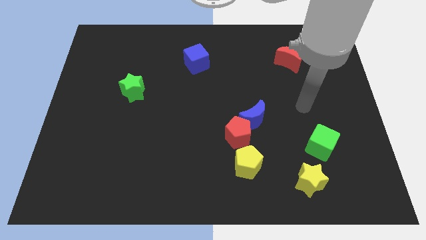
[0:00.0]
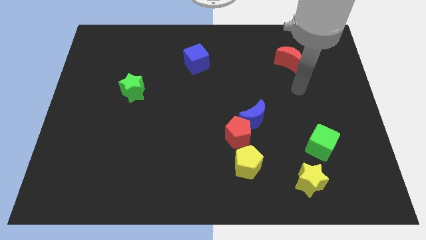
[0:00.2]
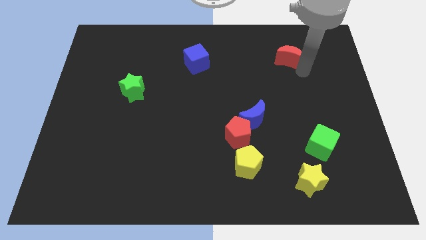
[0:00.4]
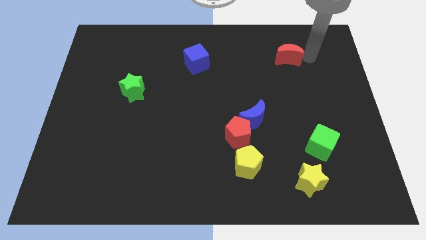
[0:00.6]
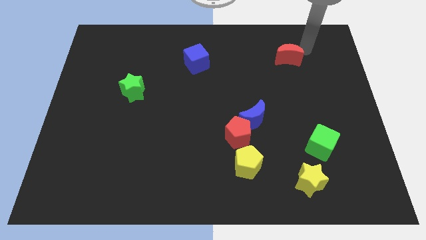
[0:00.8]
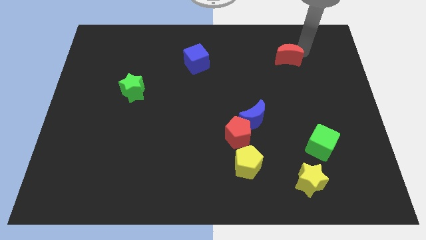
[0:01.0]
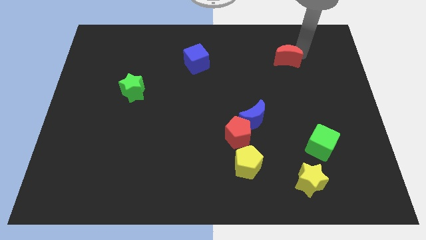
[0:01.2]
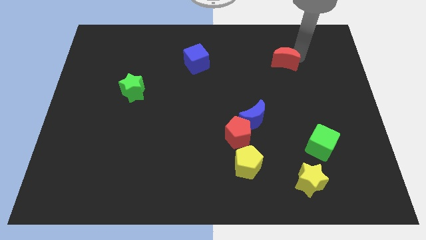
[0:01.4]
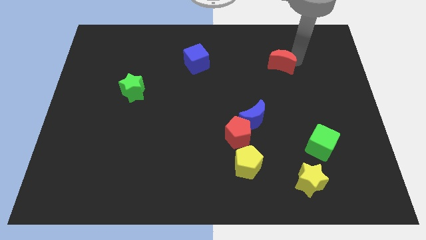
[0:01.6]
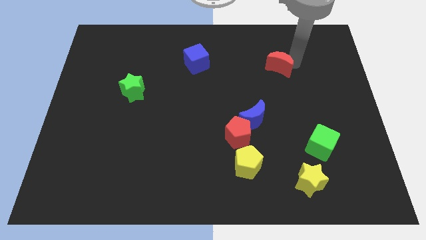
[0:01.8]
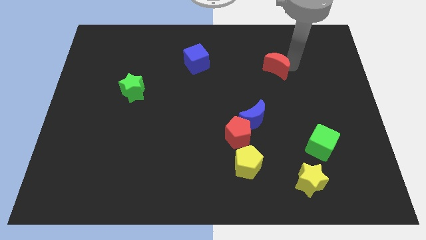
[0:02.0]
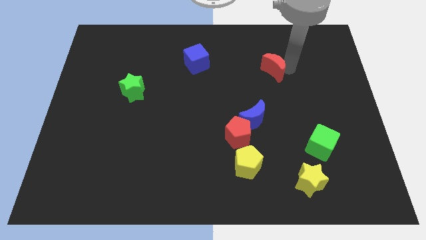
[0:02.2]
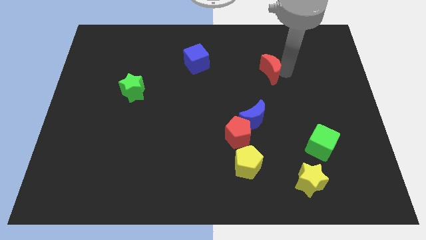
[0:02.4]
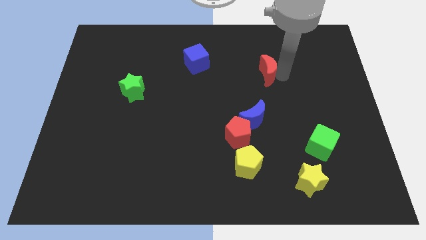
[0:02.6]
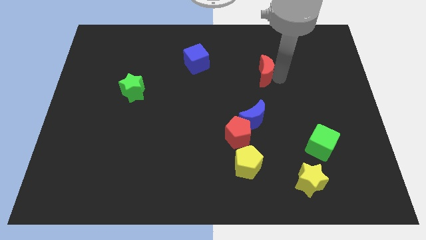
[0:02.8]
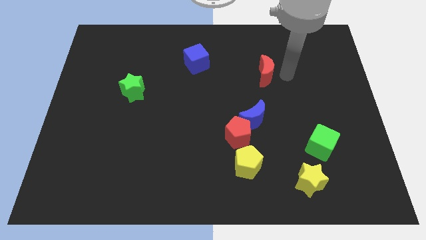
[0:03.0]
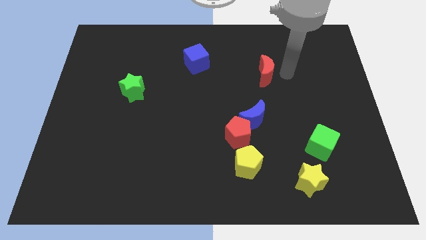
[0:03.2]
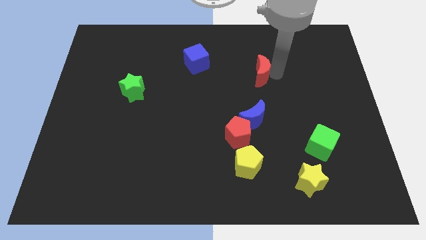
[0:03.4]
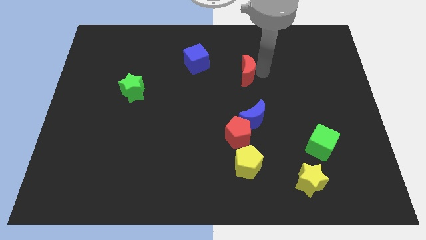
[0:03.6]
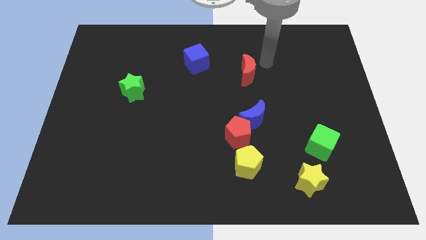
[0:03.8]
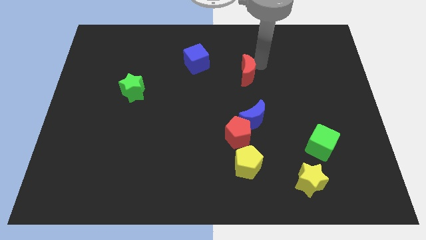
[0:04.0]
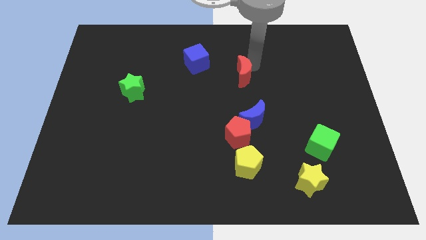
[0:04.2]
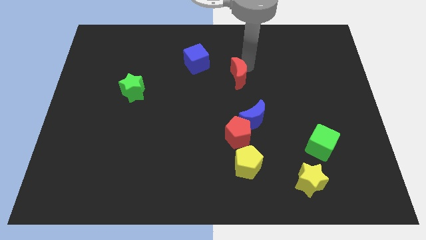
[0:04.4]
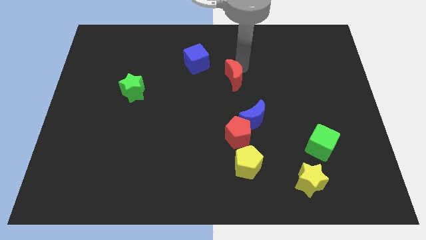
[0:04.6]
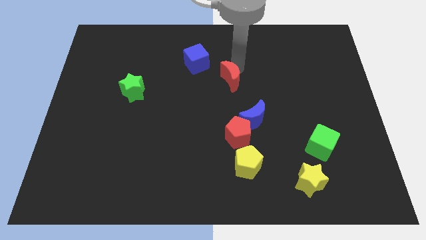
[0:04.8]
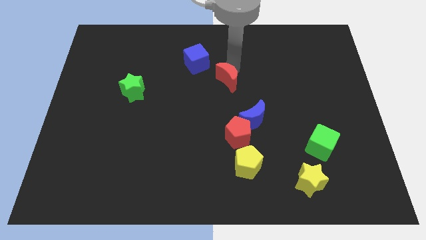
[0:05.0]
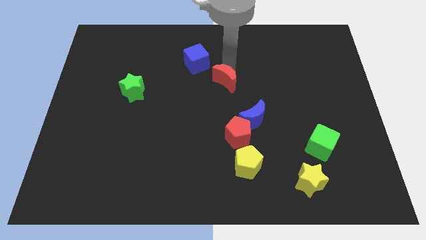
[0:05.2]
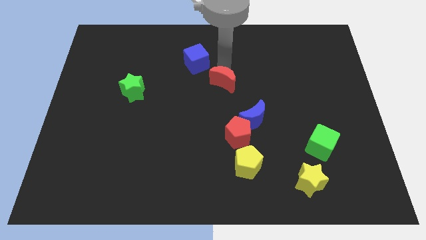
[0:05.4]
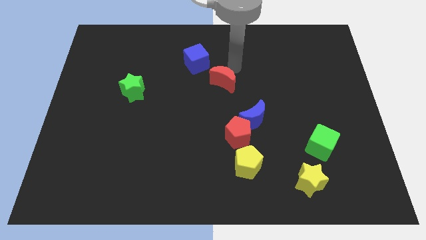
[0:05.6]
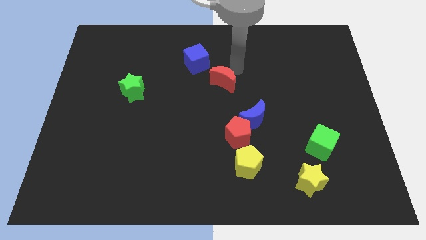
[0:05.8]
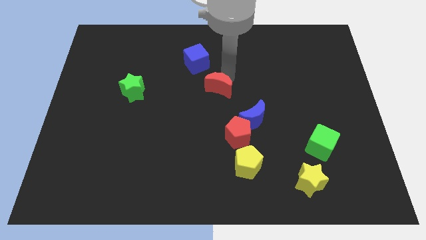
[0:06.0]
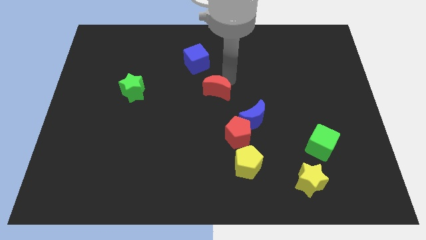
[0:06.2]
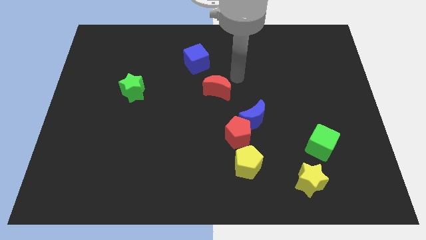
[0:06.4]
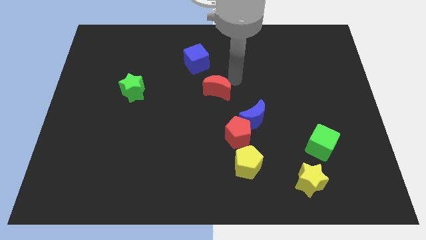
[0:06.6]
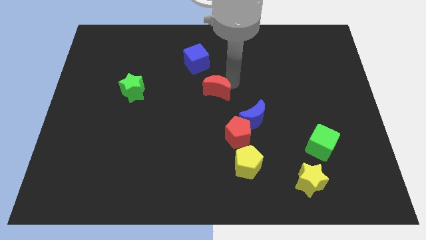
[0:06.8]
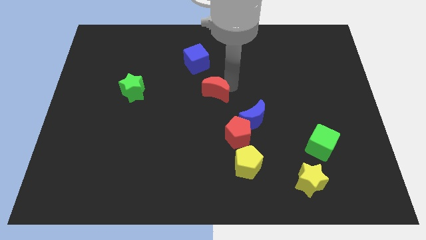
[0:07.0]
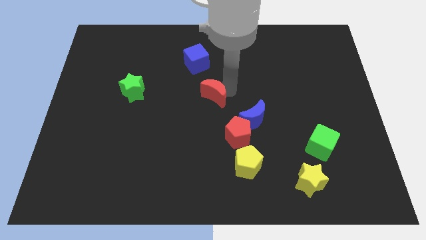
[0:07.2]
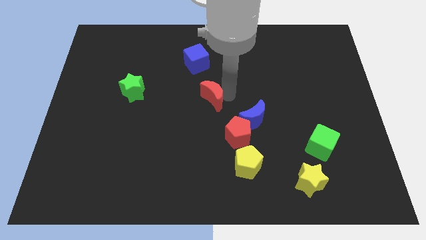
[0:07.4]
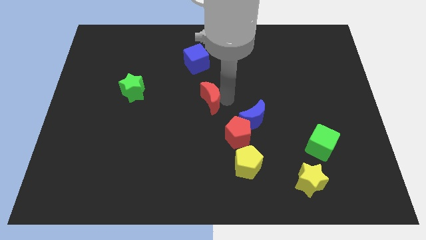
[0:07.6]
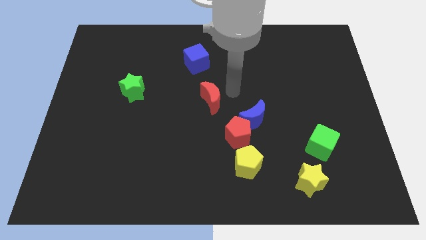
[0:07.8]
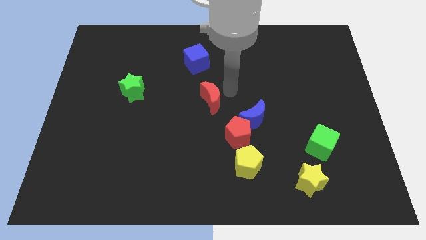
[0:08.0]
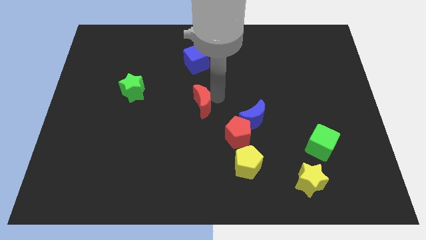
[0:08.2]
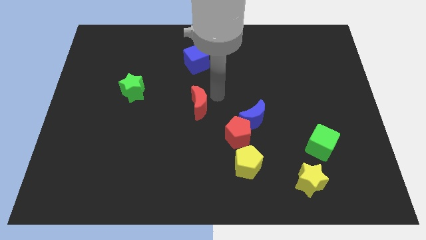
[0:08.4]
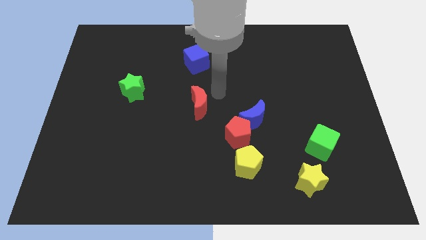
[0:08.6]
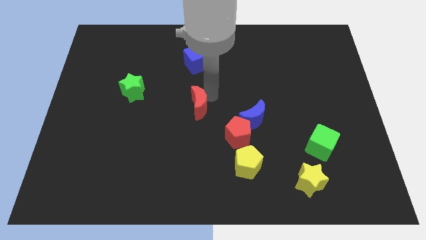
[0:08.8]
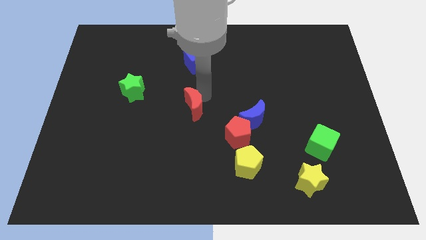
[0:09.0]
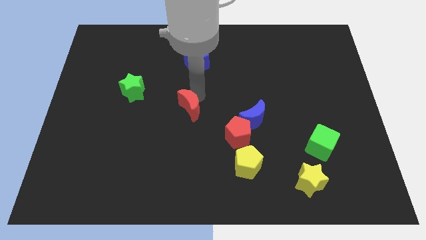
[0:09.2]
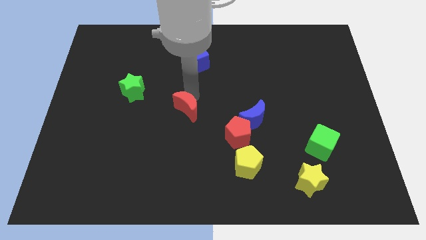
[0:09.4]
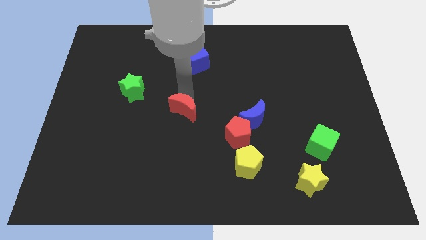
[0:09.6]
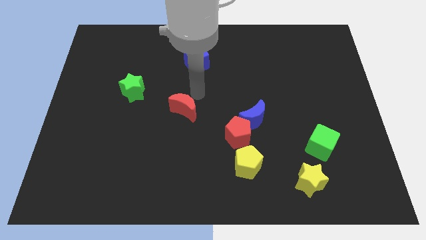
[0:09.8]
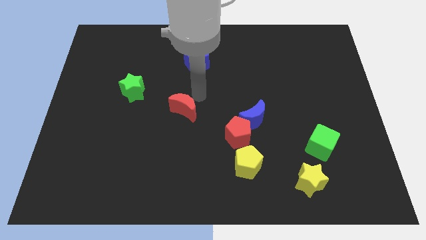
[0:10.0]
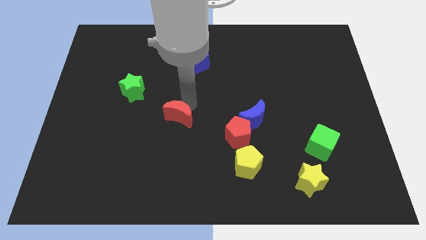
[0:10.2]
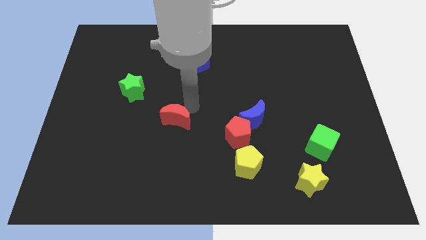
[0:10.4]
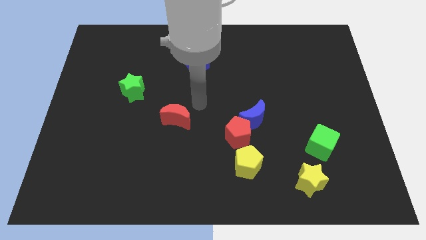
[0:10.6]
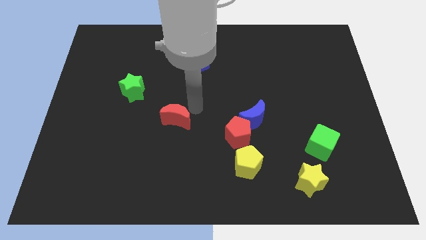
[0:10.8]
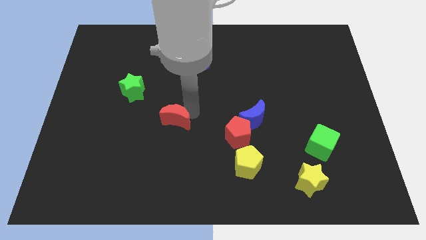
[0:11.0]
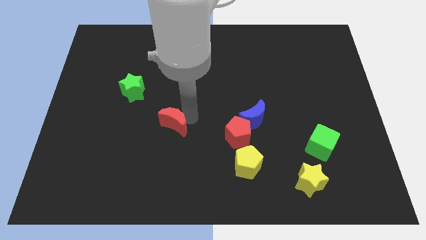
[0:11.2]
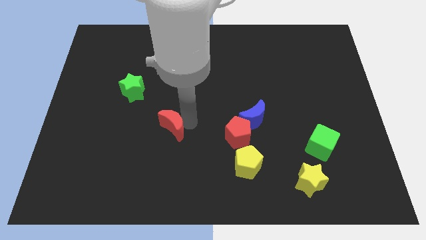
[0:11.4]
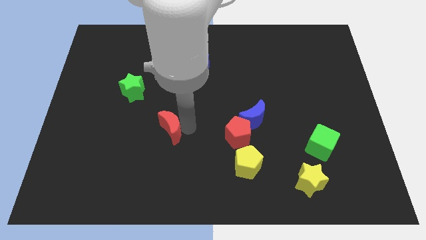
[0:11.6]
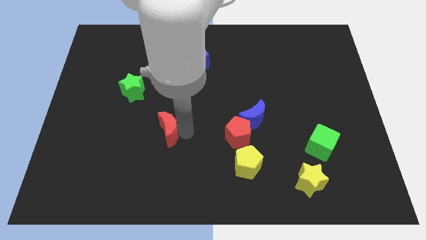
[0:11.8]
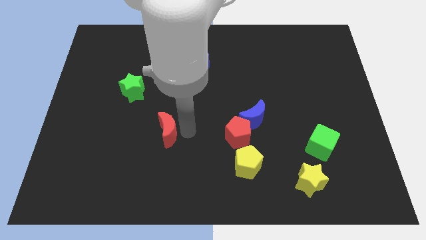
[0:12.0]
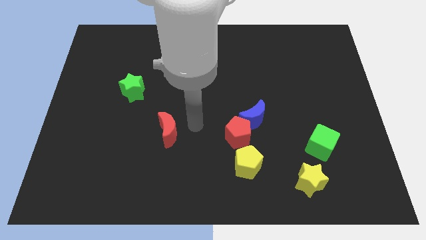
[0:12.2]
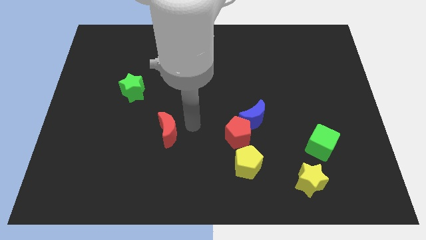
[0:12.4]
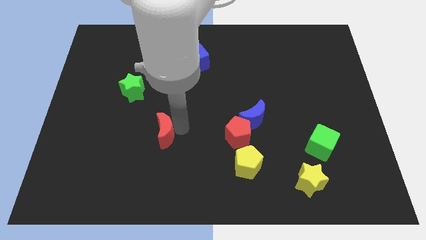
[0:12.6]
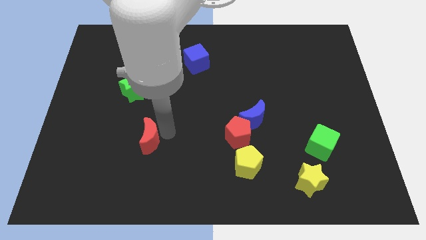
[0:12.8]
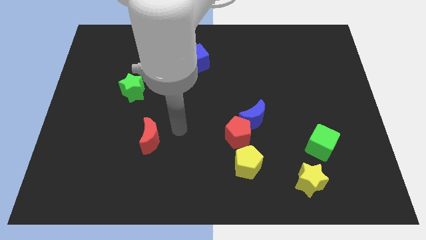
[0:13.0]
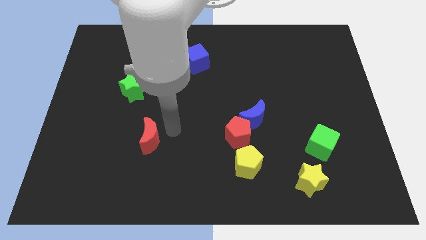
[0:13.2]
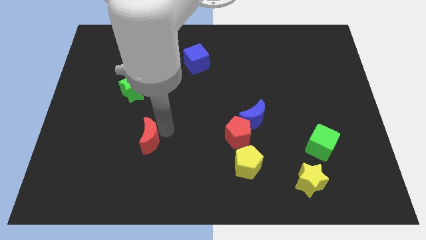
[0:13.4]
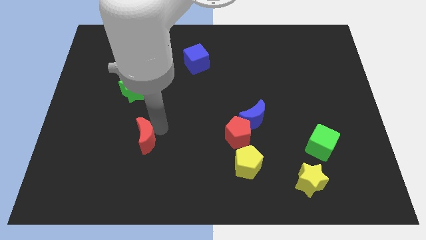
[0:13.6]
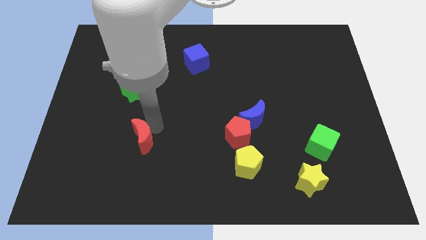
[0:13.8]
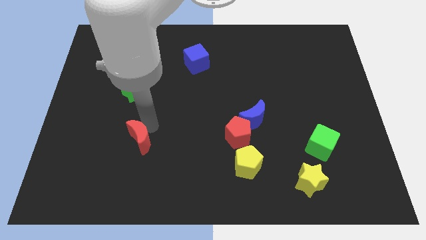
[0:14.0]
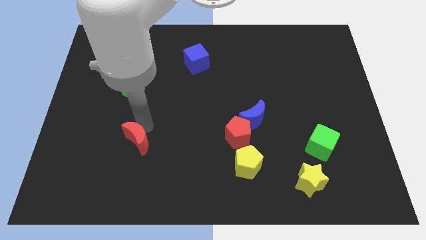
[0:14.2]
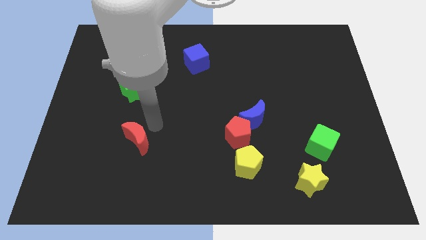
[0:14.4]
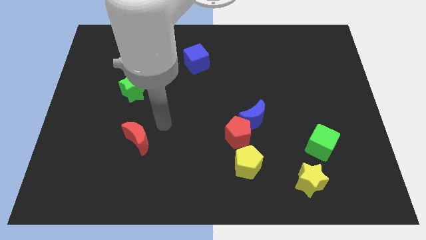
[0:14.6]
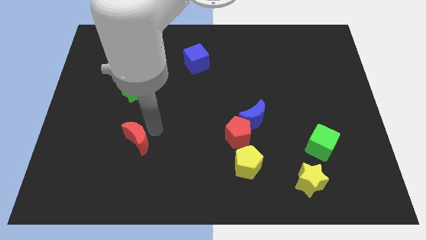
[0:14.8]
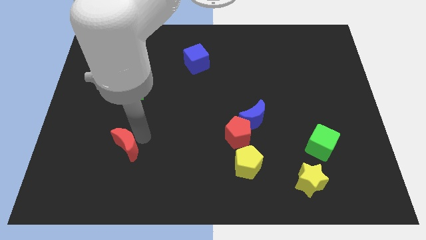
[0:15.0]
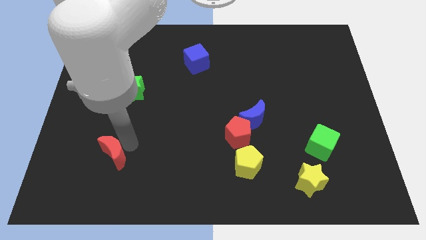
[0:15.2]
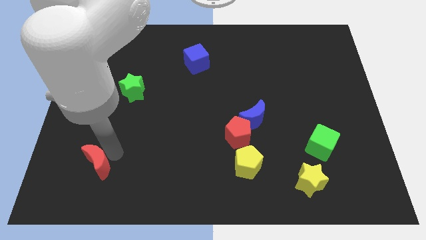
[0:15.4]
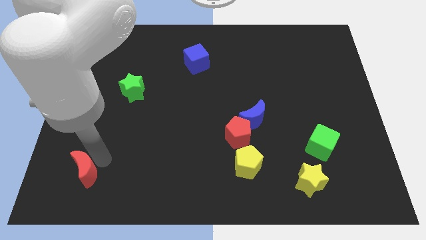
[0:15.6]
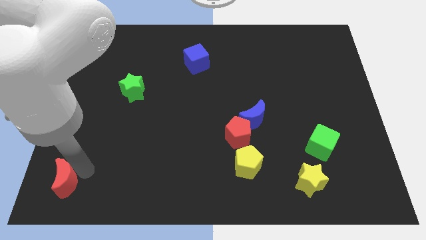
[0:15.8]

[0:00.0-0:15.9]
slide the red moon to the bottom left of the board

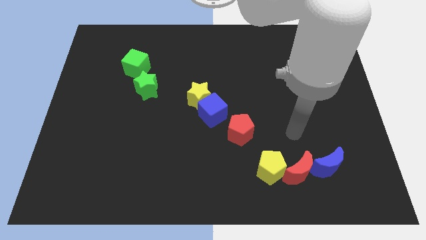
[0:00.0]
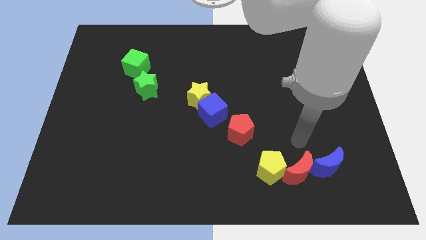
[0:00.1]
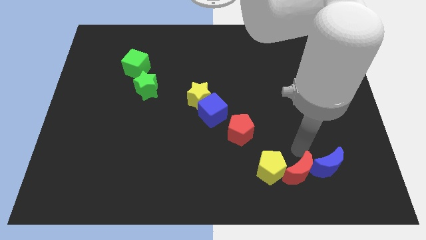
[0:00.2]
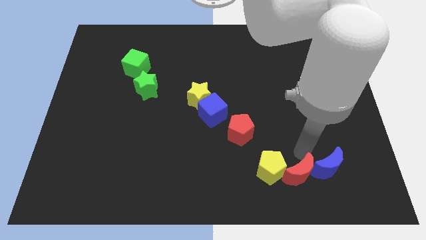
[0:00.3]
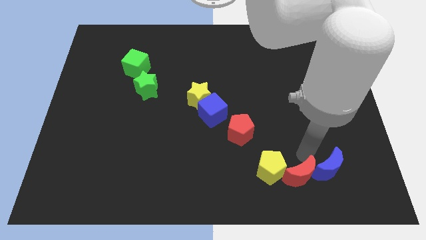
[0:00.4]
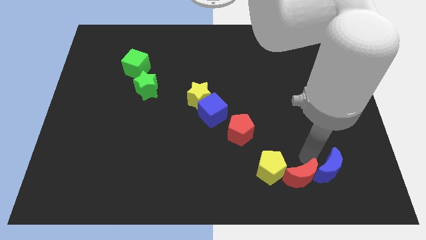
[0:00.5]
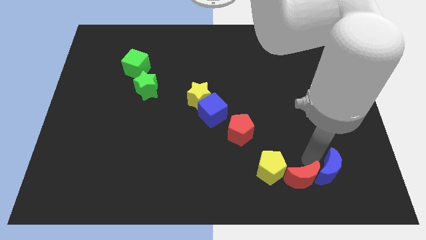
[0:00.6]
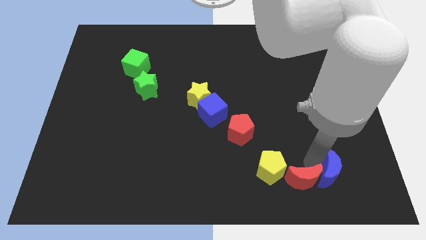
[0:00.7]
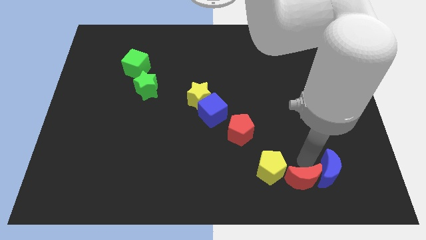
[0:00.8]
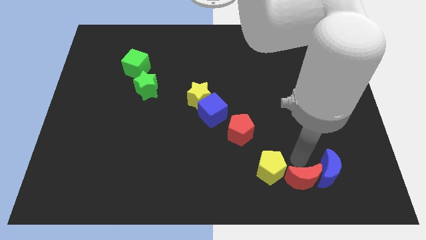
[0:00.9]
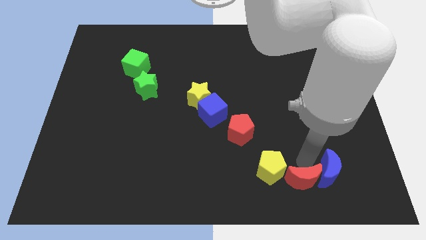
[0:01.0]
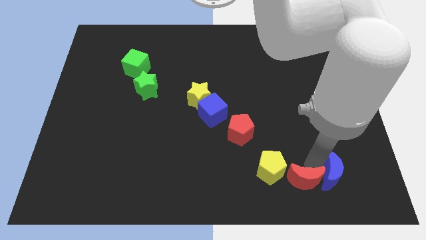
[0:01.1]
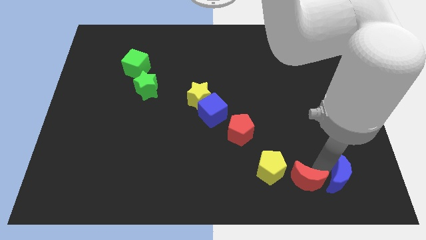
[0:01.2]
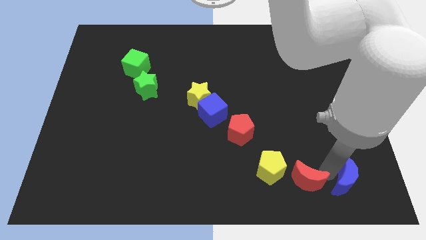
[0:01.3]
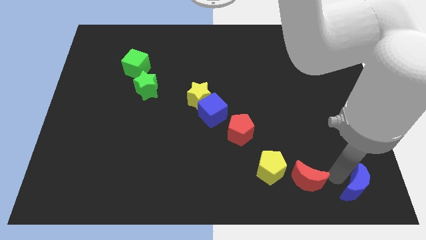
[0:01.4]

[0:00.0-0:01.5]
move the blue moon to the bottom right
